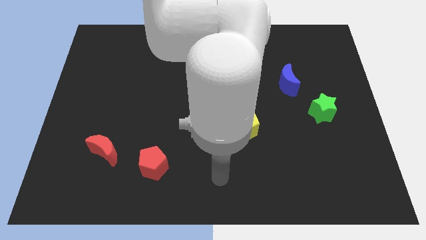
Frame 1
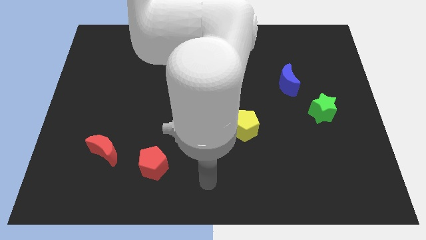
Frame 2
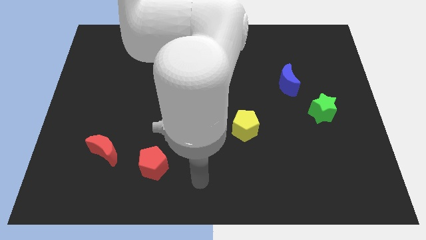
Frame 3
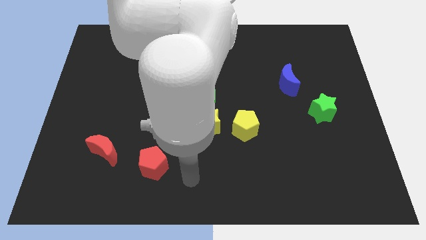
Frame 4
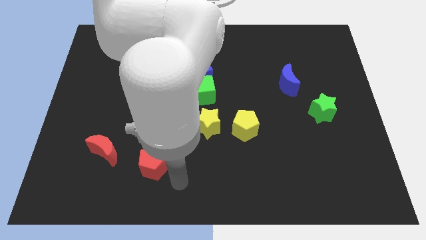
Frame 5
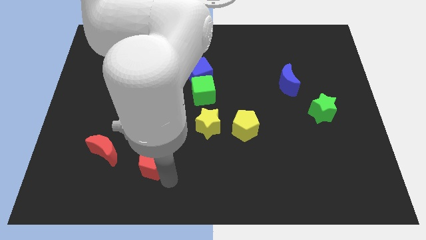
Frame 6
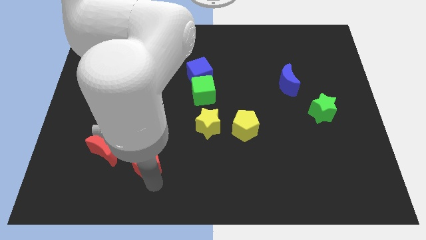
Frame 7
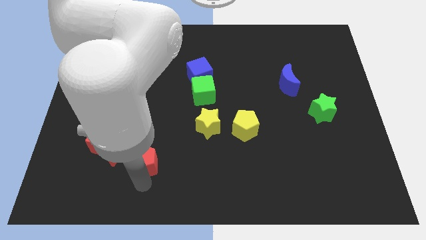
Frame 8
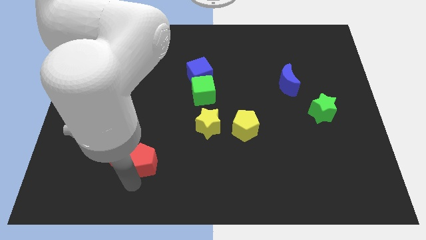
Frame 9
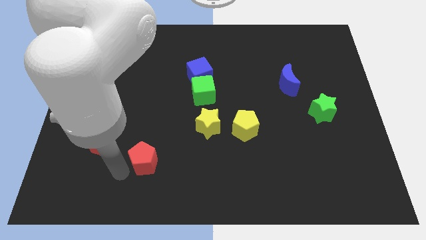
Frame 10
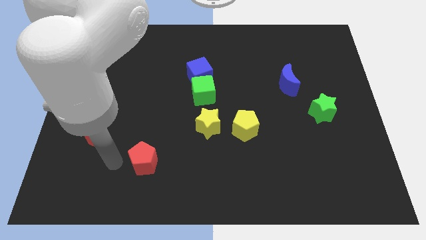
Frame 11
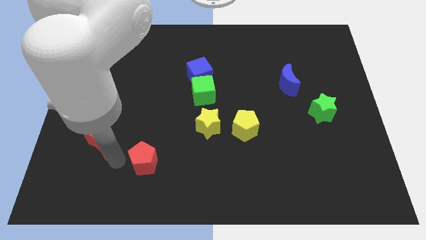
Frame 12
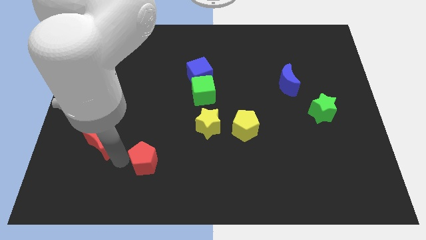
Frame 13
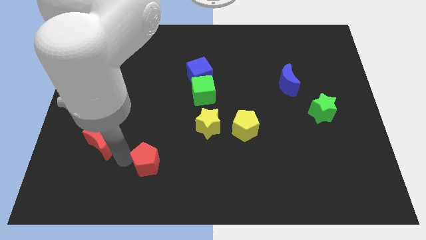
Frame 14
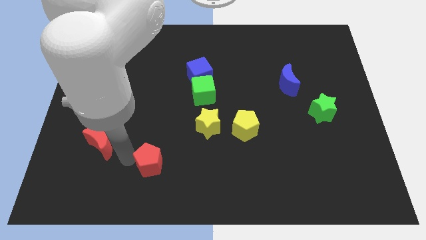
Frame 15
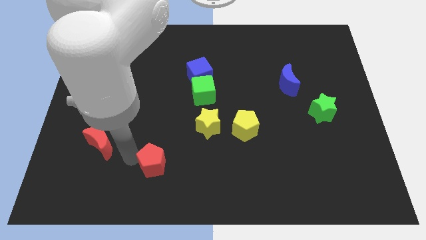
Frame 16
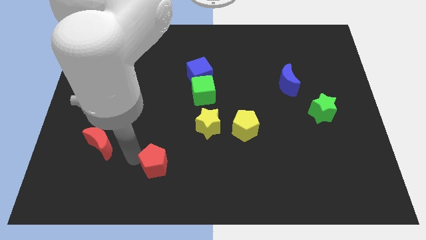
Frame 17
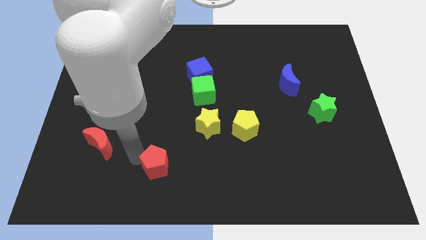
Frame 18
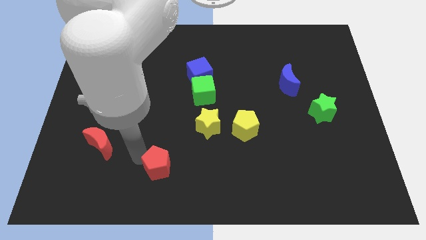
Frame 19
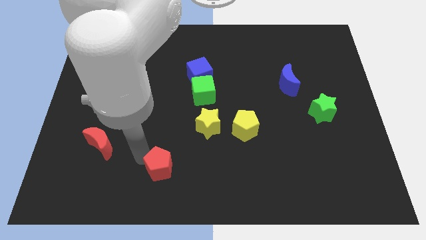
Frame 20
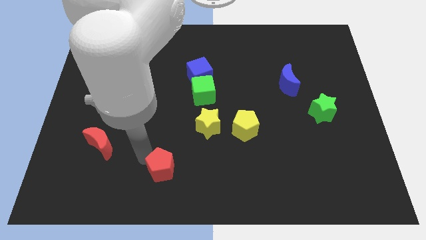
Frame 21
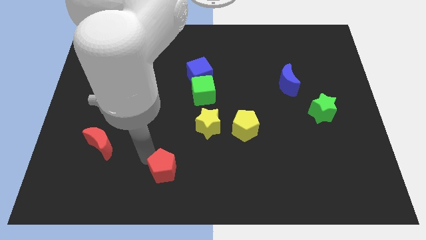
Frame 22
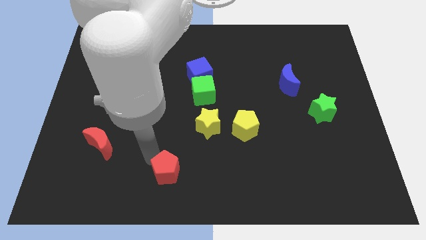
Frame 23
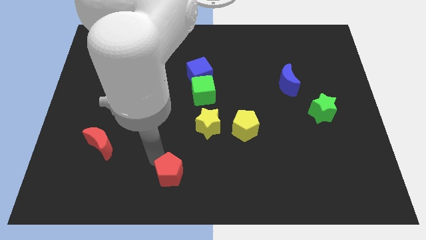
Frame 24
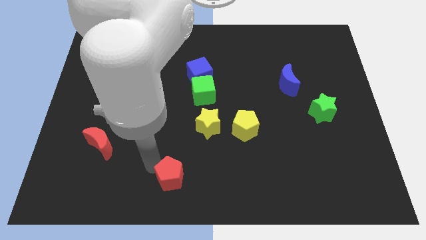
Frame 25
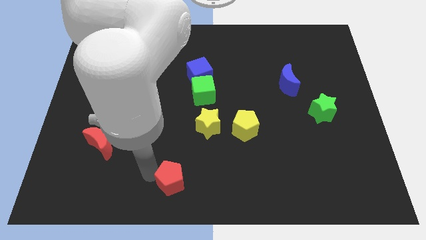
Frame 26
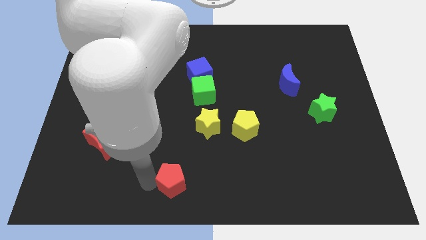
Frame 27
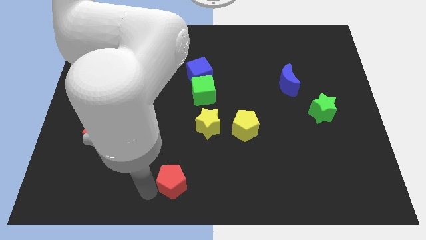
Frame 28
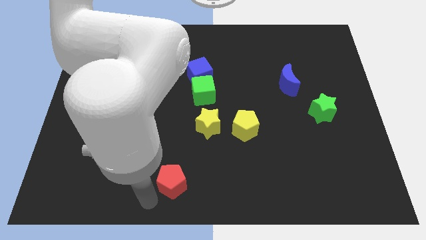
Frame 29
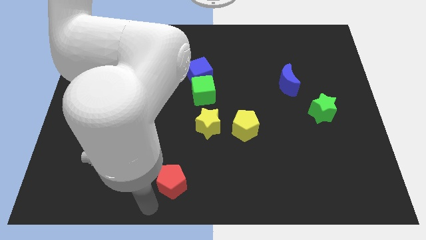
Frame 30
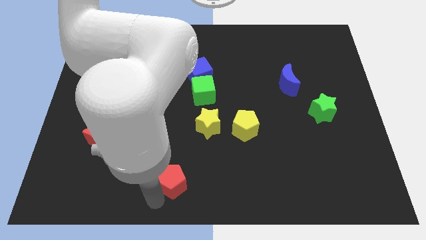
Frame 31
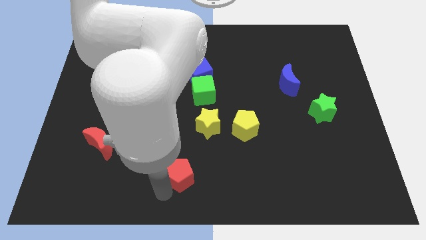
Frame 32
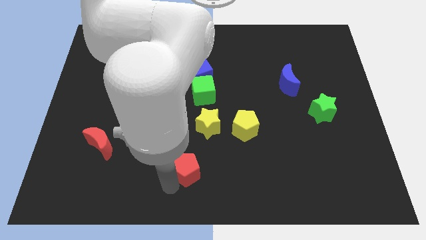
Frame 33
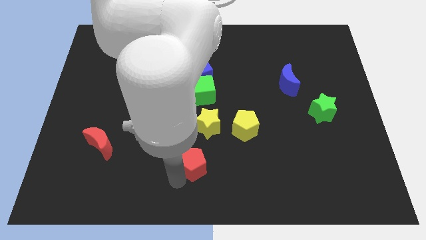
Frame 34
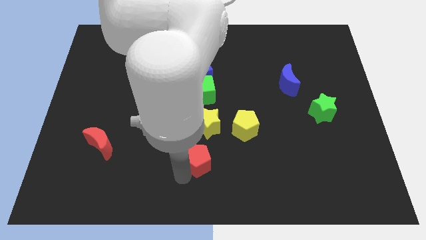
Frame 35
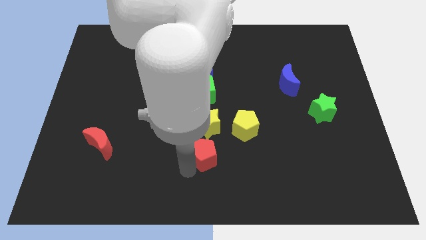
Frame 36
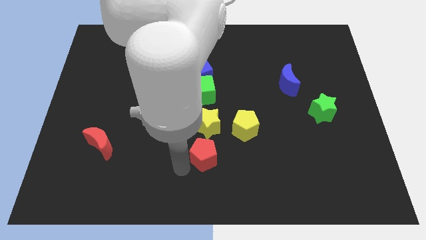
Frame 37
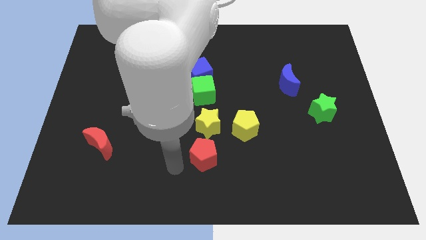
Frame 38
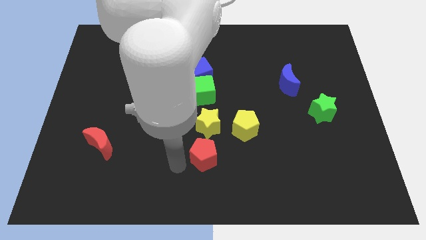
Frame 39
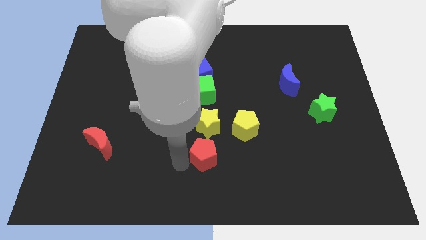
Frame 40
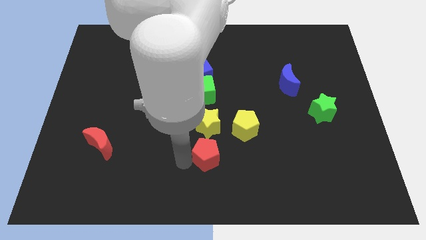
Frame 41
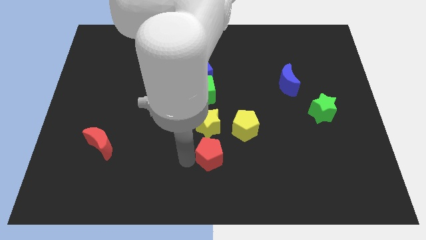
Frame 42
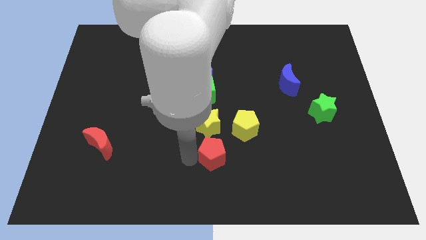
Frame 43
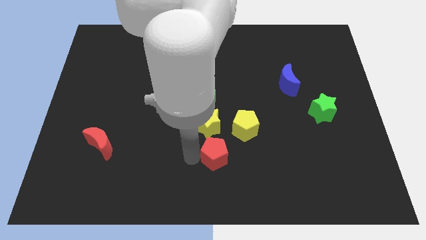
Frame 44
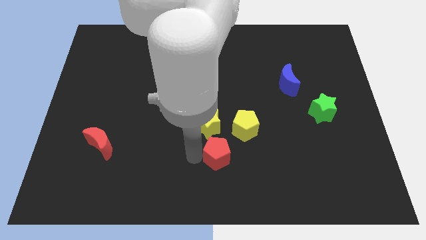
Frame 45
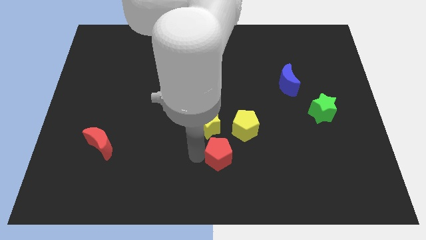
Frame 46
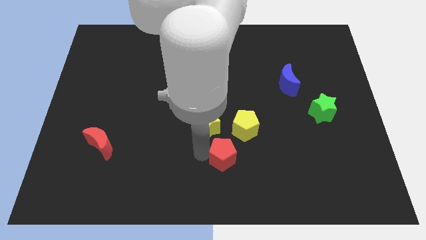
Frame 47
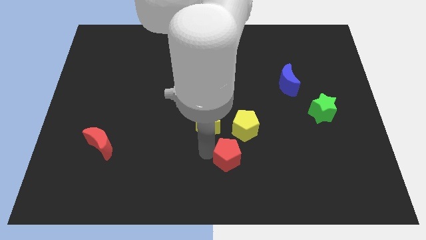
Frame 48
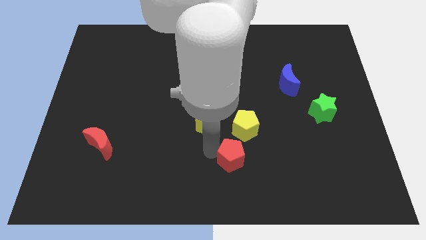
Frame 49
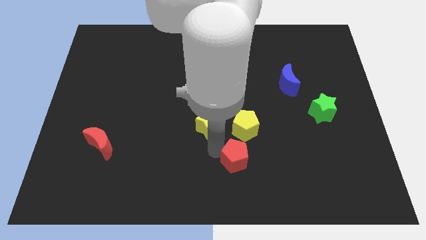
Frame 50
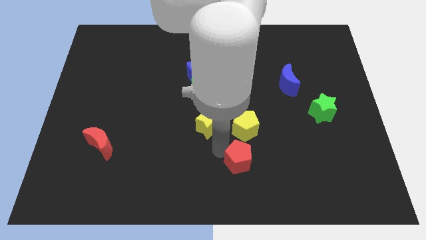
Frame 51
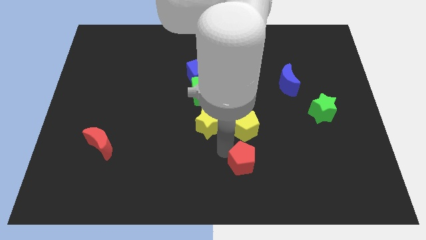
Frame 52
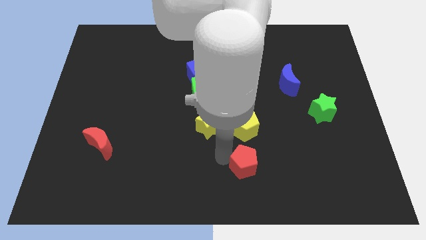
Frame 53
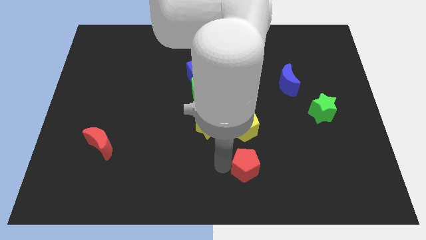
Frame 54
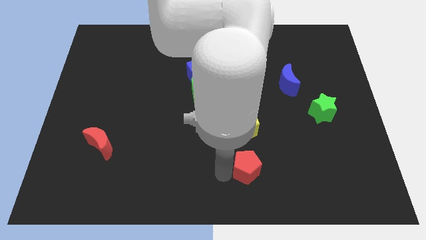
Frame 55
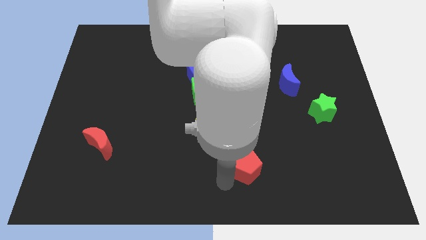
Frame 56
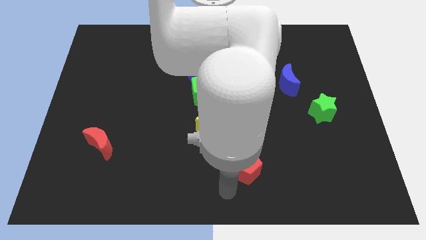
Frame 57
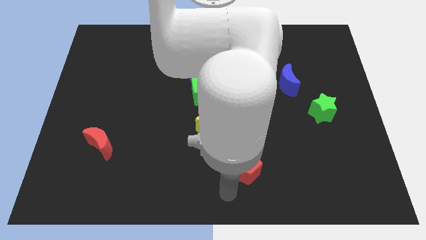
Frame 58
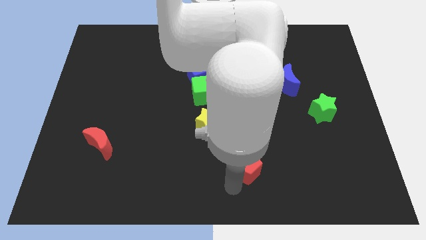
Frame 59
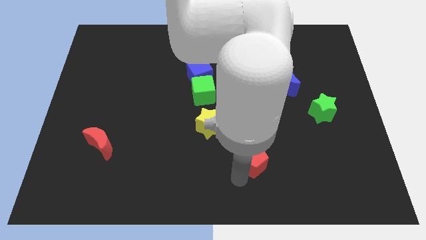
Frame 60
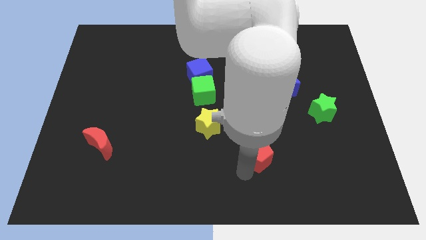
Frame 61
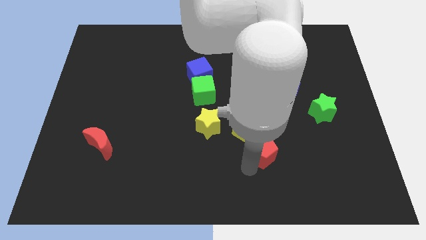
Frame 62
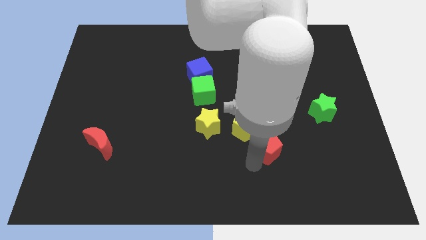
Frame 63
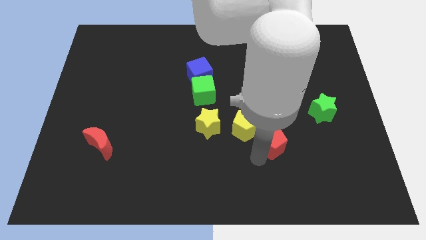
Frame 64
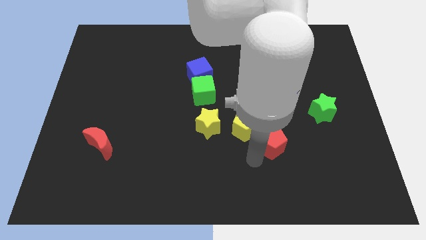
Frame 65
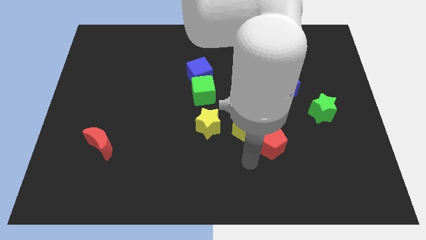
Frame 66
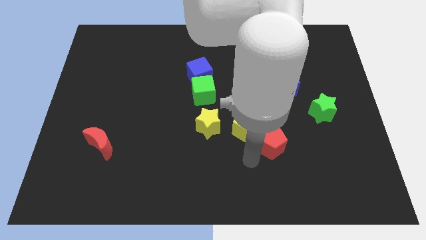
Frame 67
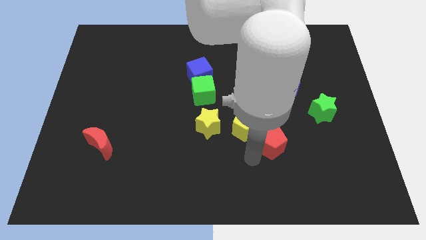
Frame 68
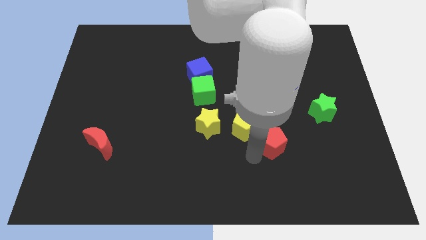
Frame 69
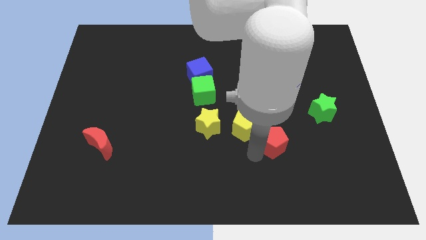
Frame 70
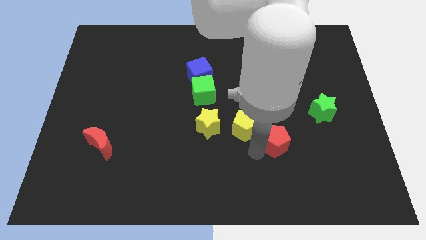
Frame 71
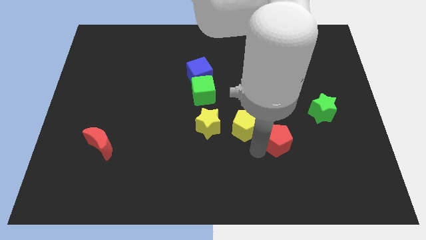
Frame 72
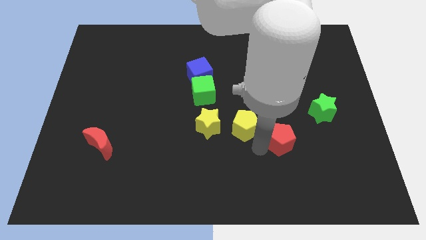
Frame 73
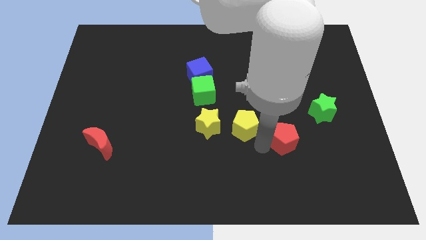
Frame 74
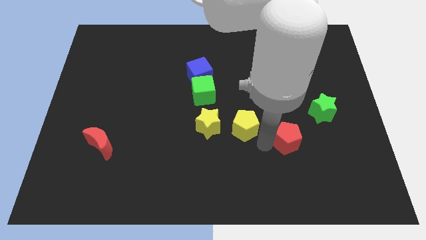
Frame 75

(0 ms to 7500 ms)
put the red pentagon diagonally down and to the left of the green star
